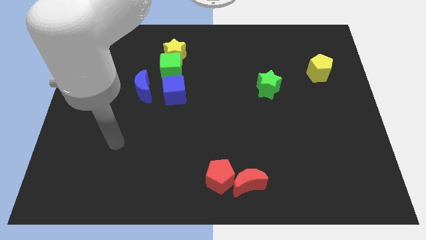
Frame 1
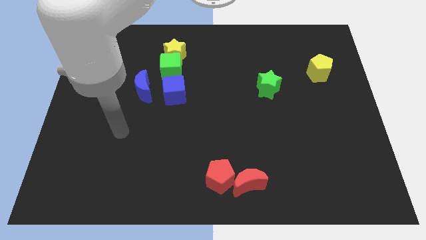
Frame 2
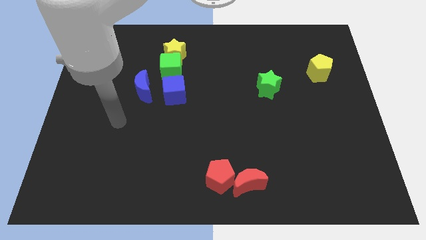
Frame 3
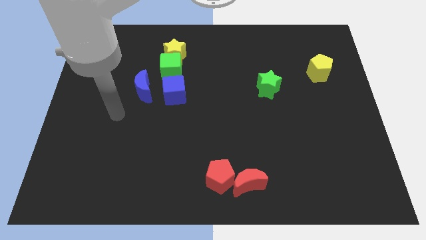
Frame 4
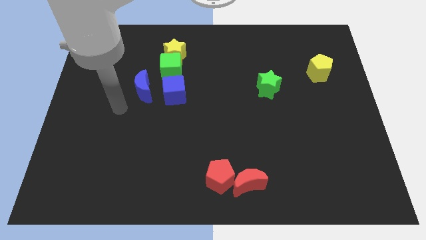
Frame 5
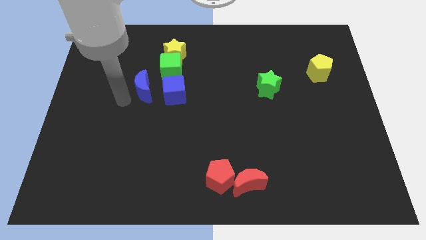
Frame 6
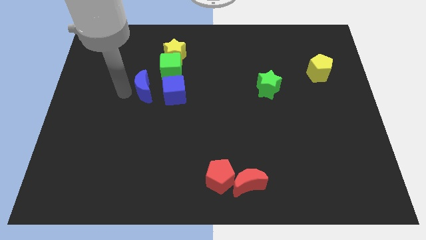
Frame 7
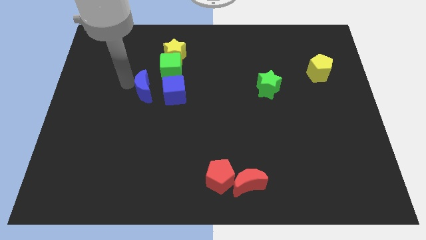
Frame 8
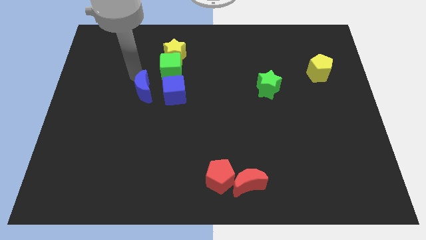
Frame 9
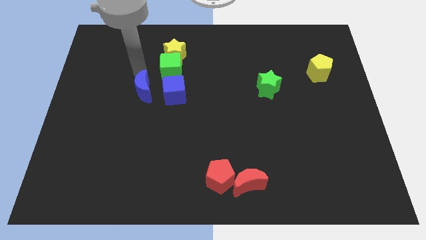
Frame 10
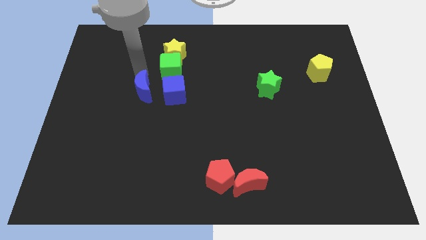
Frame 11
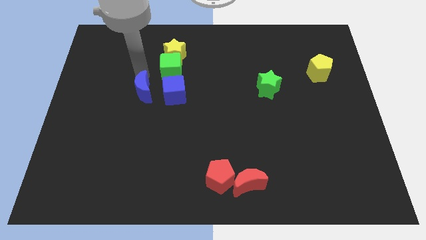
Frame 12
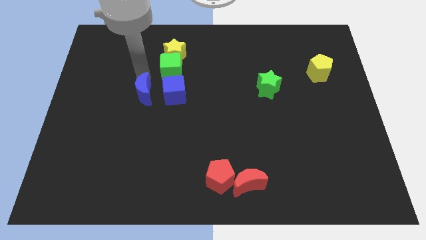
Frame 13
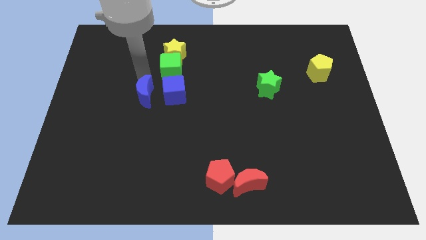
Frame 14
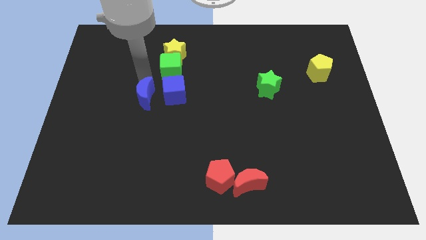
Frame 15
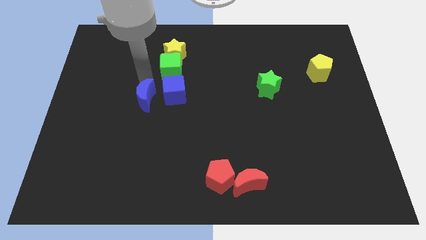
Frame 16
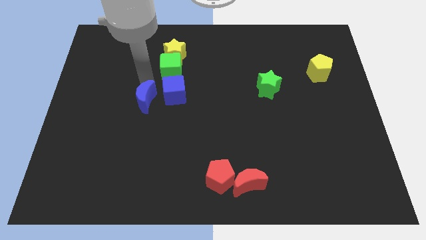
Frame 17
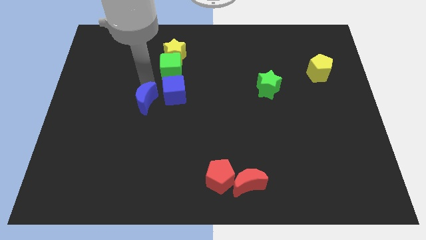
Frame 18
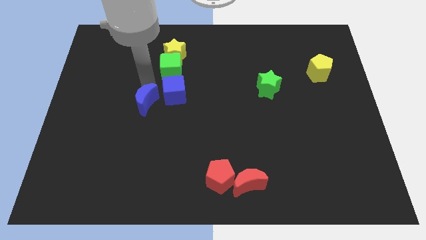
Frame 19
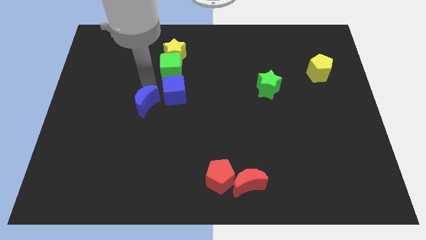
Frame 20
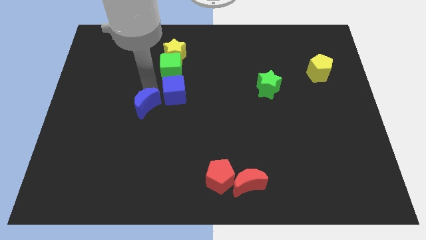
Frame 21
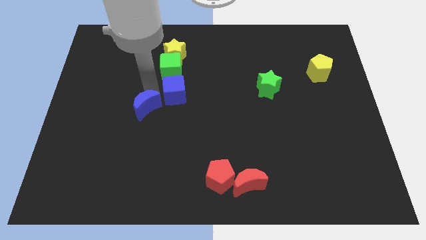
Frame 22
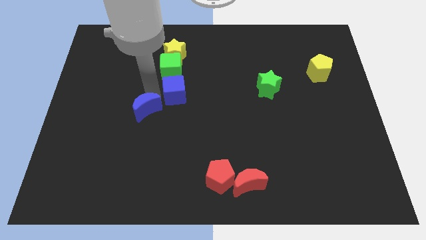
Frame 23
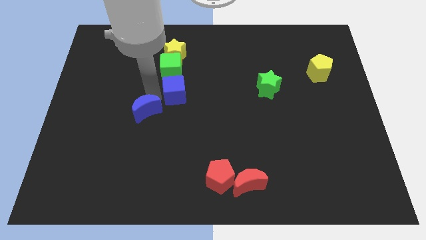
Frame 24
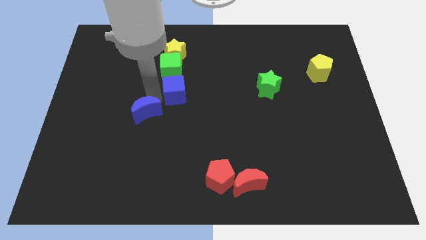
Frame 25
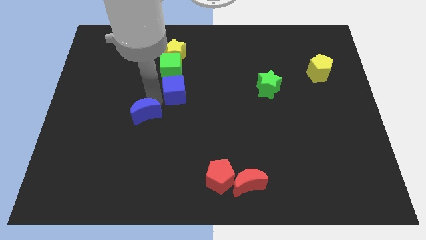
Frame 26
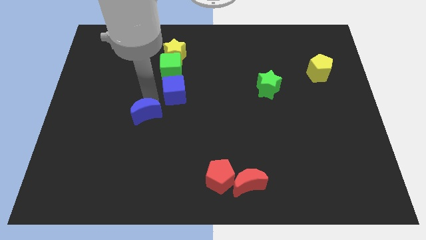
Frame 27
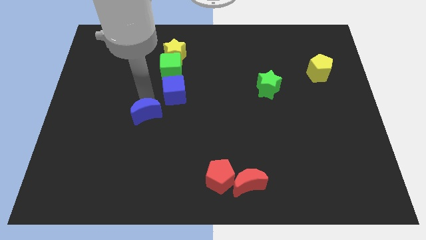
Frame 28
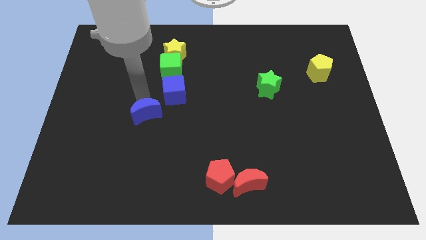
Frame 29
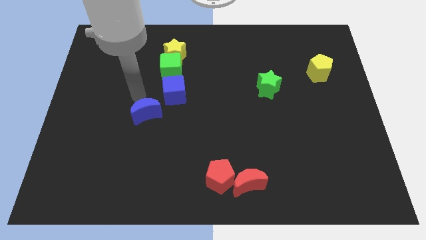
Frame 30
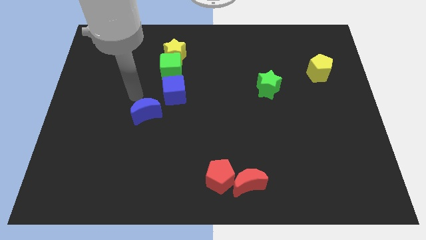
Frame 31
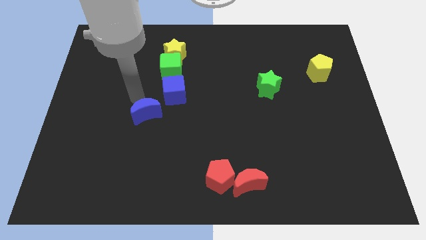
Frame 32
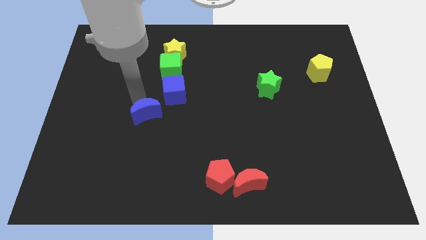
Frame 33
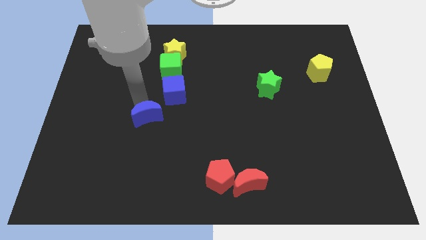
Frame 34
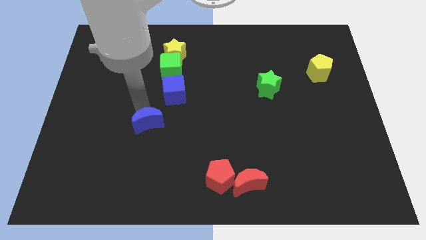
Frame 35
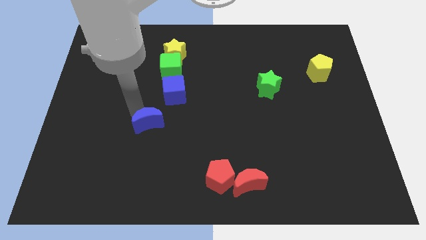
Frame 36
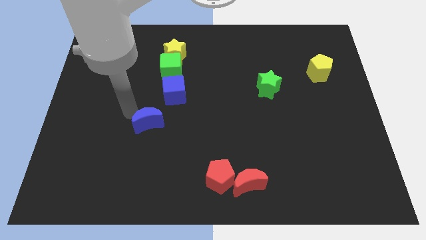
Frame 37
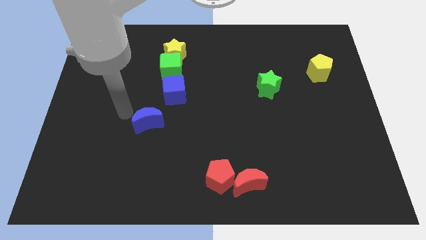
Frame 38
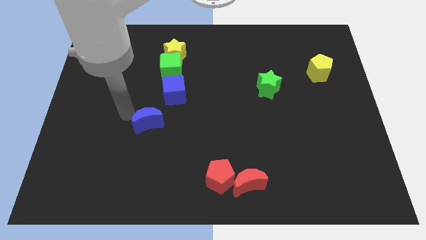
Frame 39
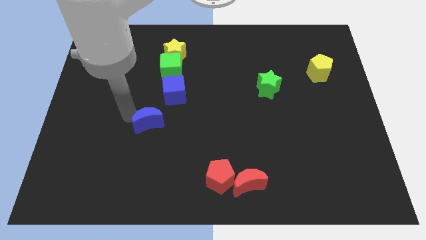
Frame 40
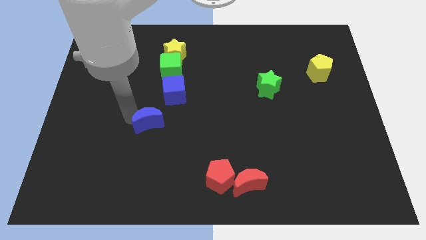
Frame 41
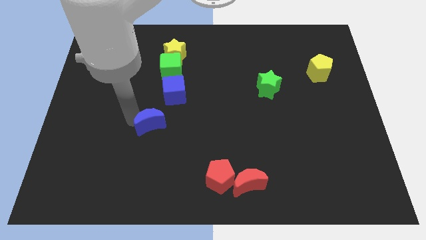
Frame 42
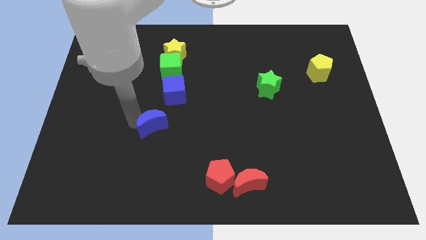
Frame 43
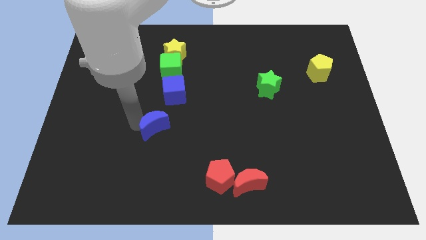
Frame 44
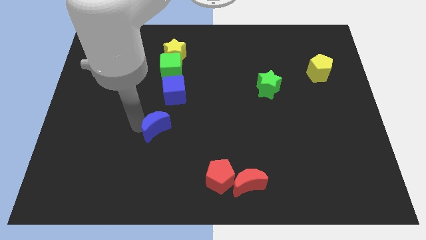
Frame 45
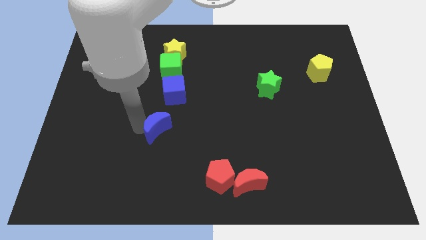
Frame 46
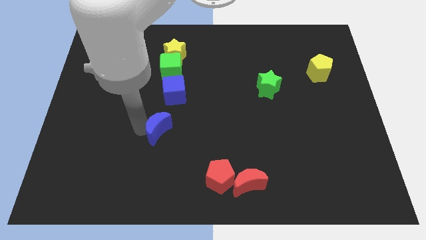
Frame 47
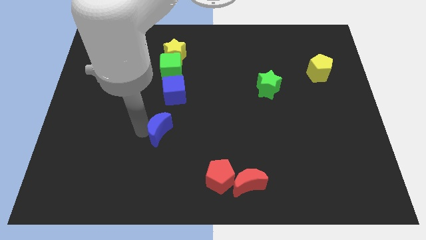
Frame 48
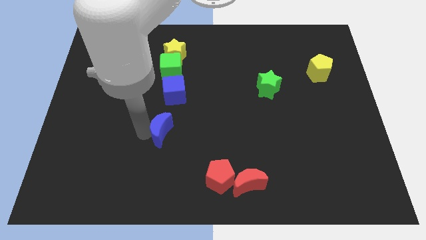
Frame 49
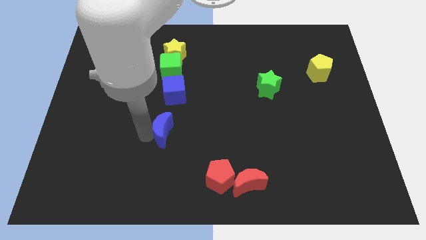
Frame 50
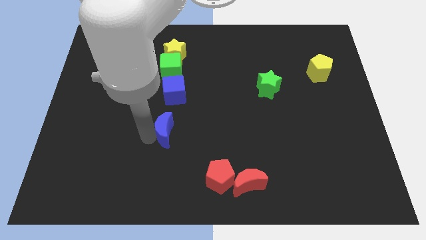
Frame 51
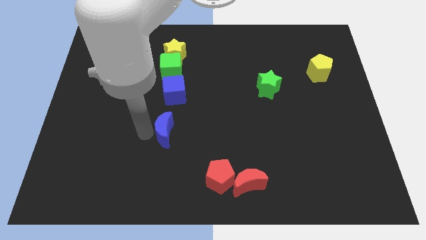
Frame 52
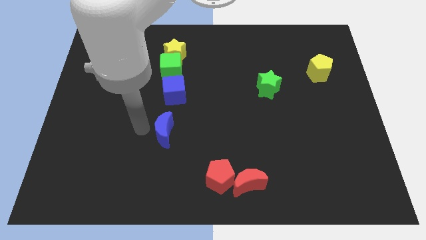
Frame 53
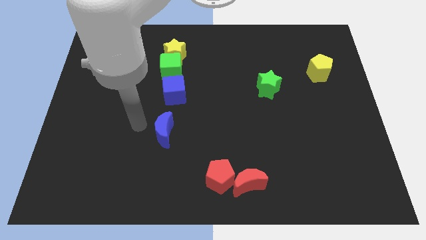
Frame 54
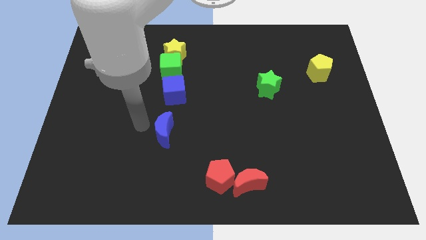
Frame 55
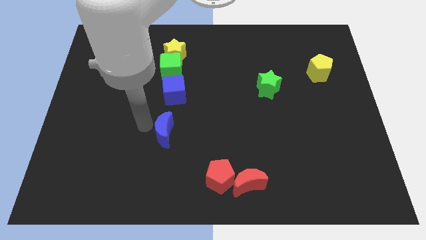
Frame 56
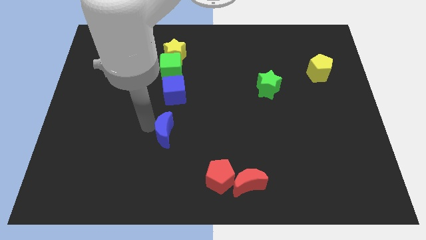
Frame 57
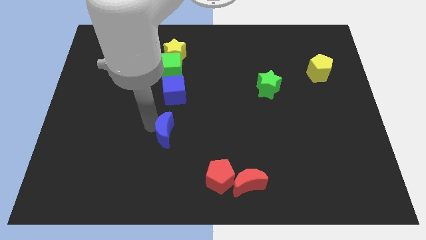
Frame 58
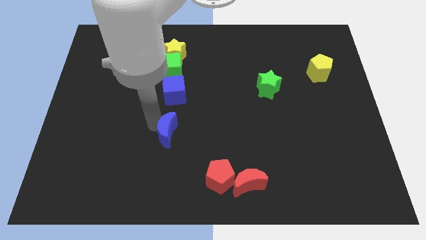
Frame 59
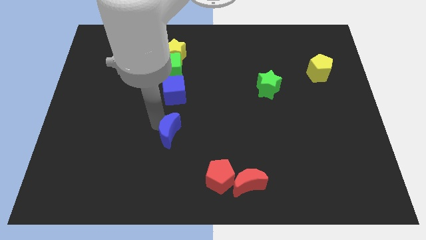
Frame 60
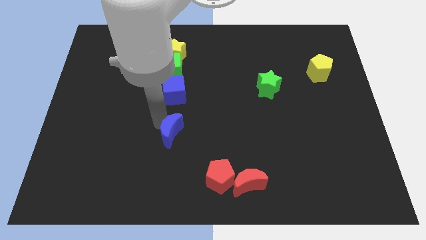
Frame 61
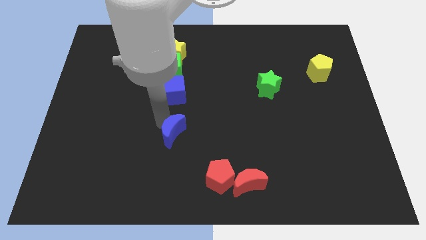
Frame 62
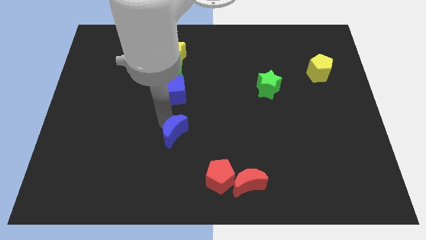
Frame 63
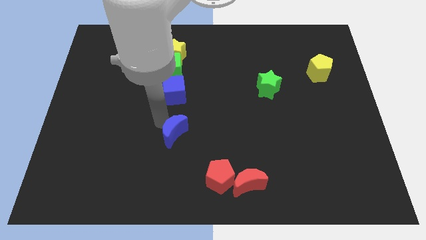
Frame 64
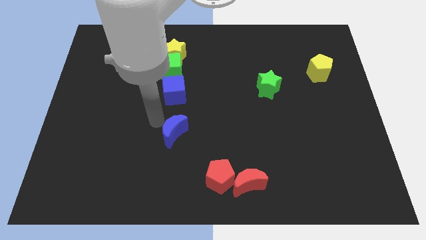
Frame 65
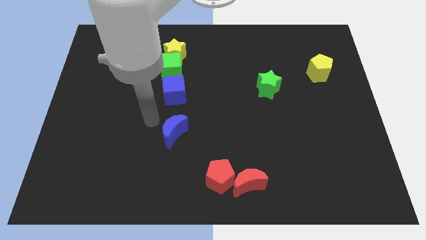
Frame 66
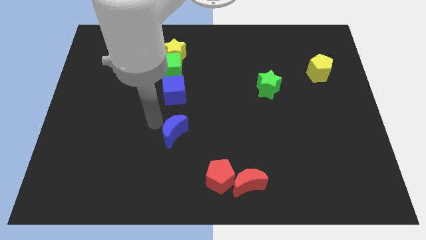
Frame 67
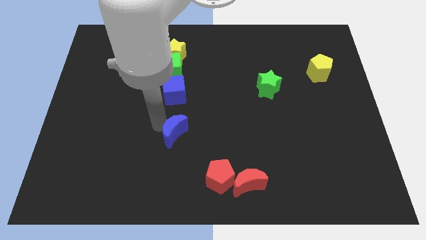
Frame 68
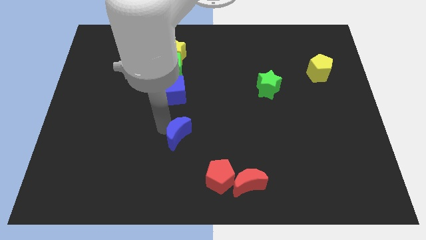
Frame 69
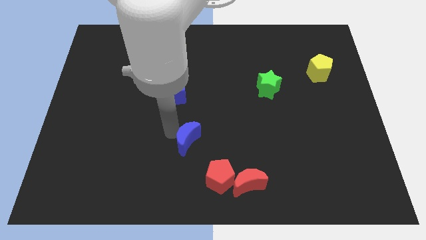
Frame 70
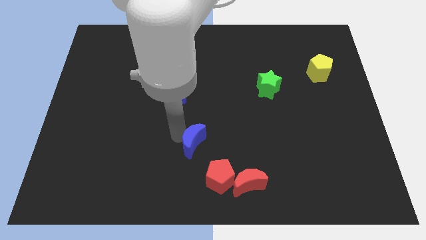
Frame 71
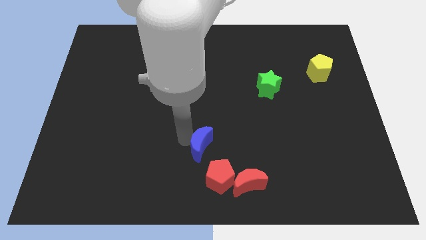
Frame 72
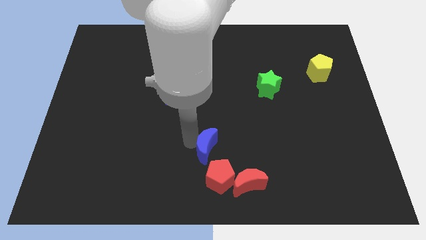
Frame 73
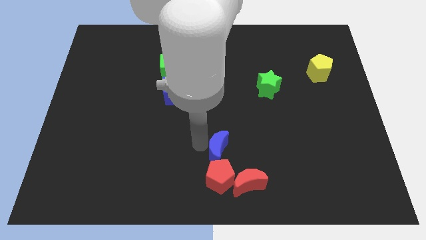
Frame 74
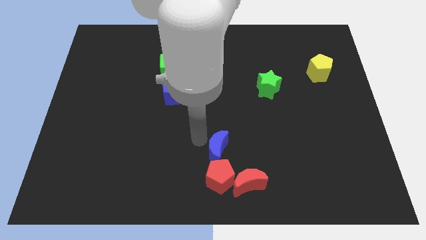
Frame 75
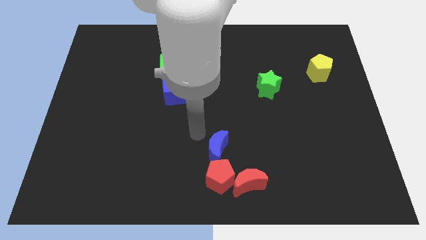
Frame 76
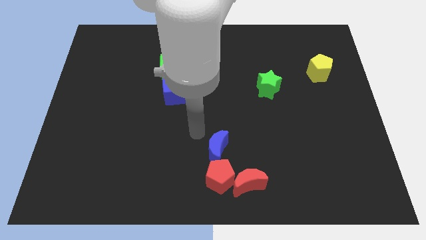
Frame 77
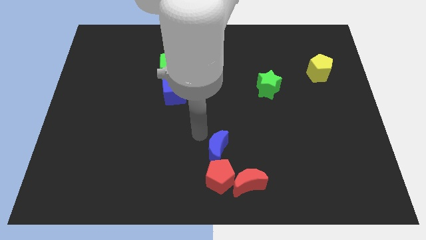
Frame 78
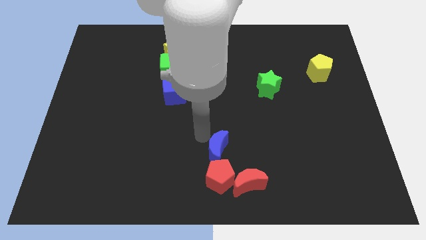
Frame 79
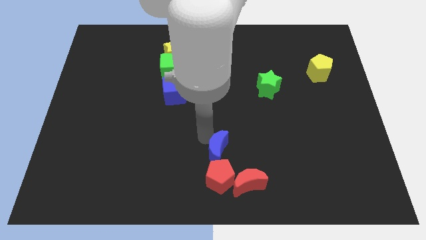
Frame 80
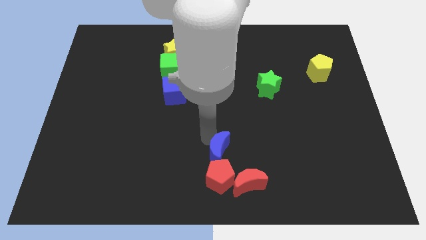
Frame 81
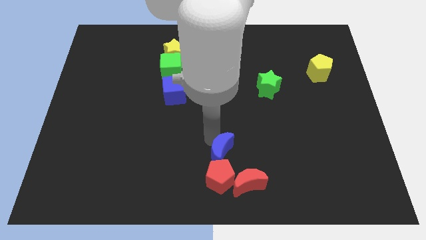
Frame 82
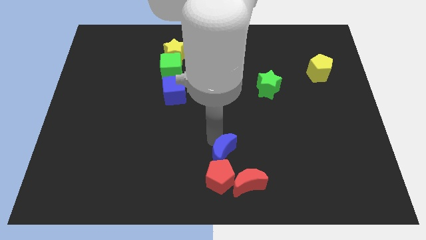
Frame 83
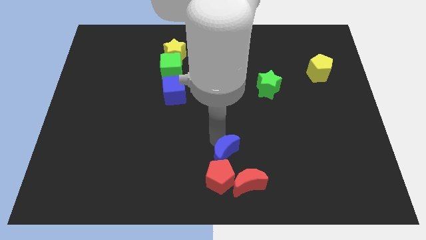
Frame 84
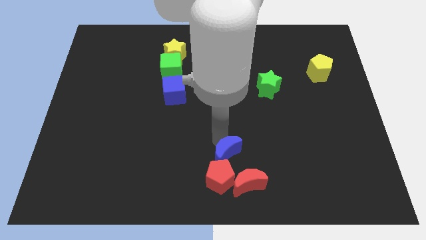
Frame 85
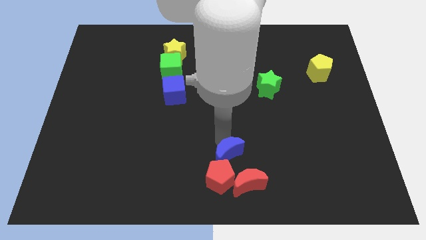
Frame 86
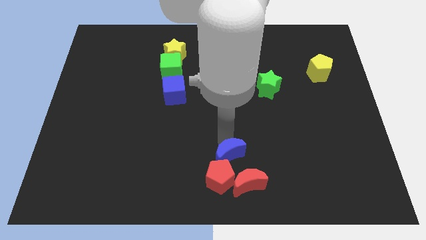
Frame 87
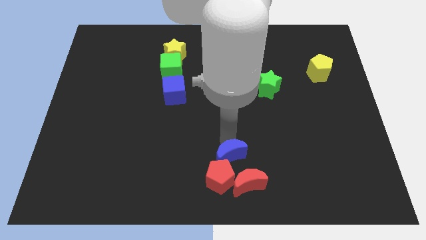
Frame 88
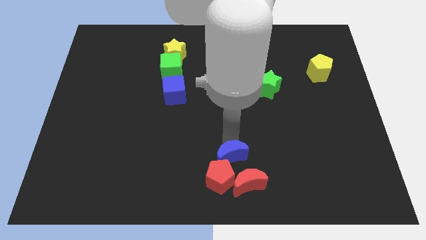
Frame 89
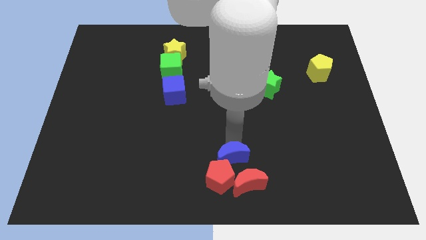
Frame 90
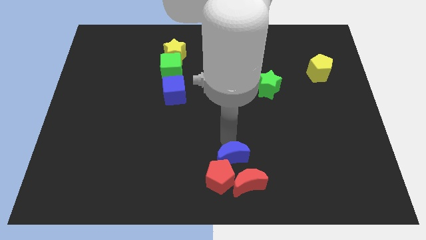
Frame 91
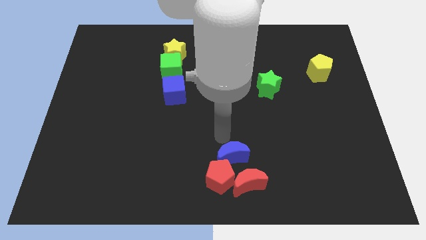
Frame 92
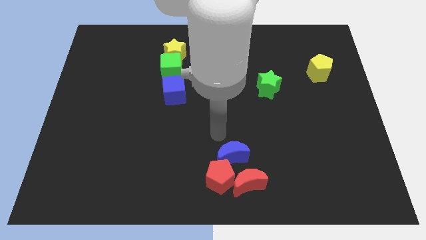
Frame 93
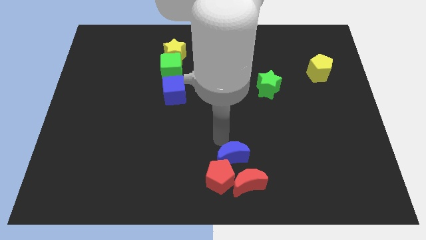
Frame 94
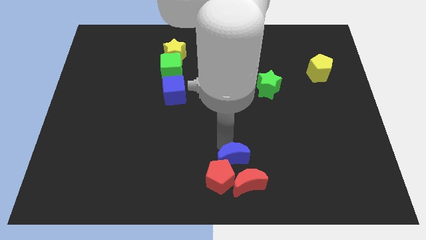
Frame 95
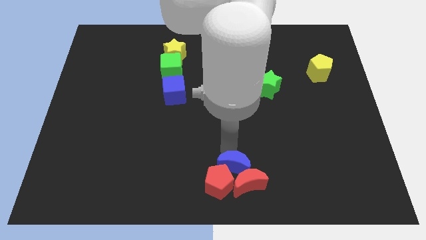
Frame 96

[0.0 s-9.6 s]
push the blue moon to the red moon
